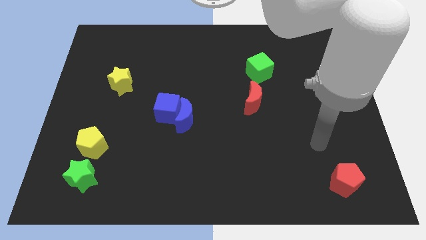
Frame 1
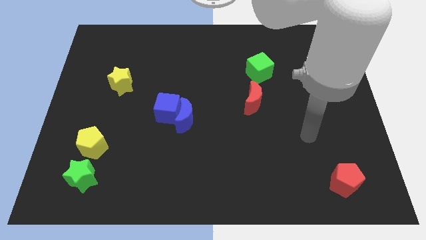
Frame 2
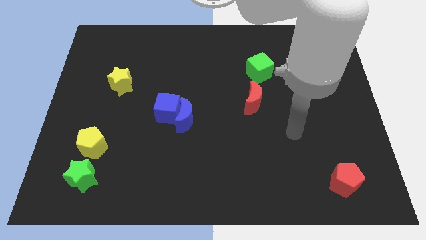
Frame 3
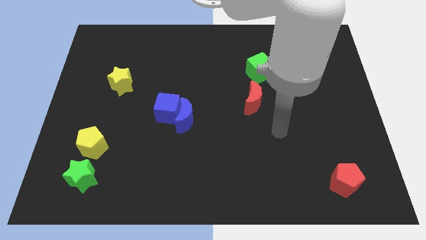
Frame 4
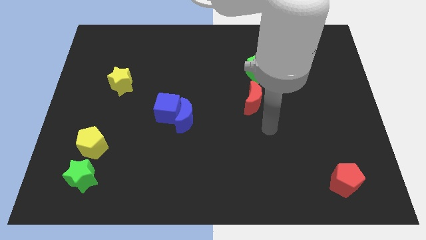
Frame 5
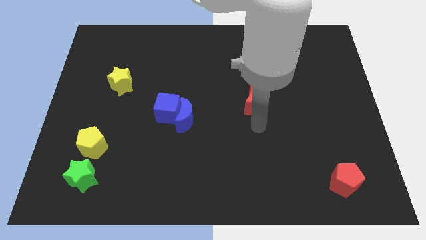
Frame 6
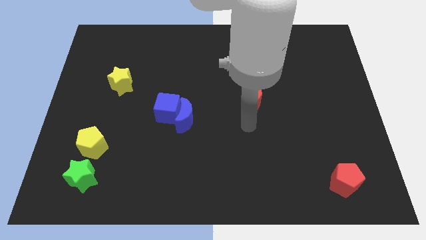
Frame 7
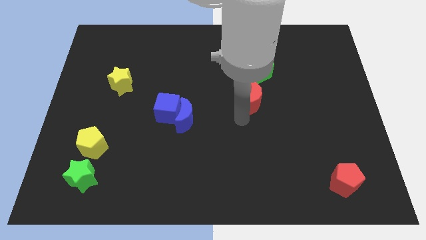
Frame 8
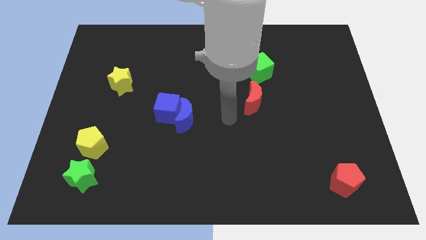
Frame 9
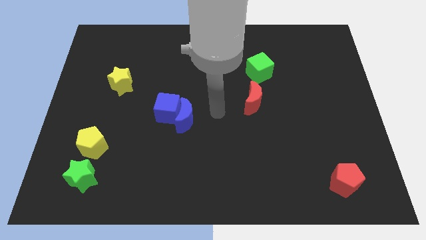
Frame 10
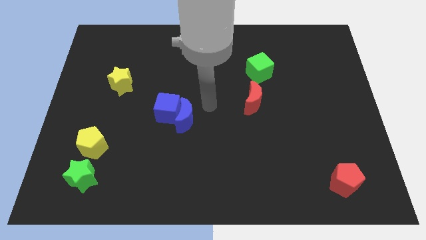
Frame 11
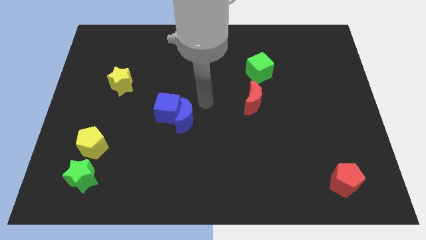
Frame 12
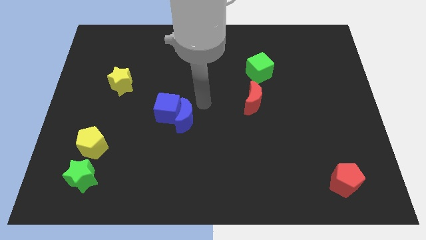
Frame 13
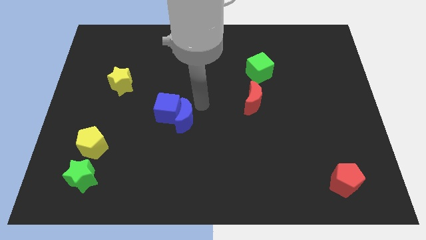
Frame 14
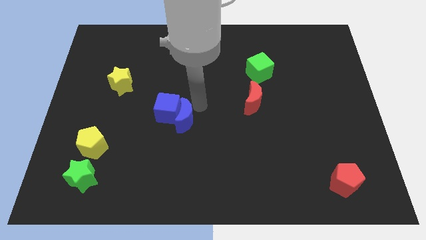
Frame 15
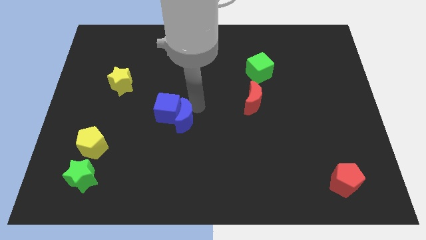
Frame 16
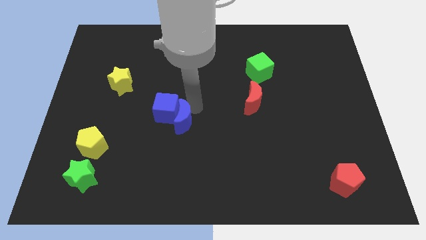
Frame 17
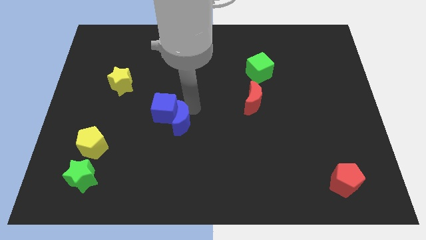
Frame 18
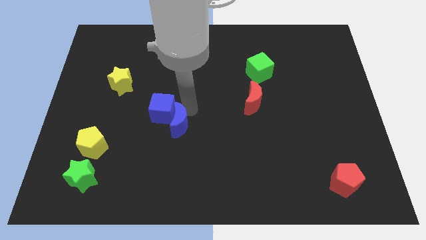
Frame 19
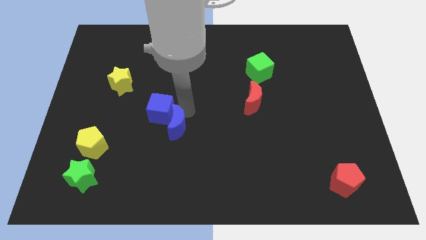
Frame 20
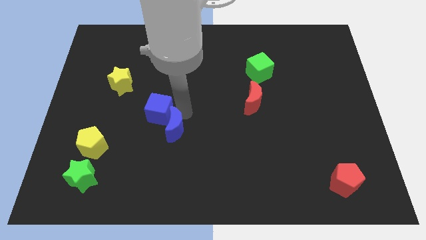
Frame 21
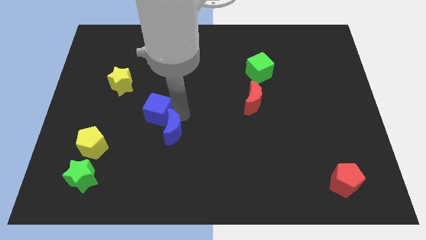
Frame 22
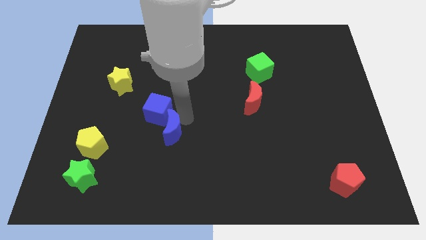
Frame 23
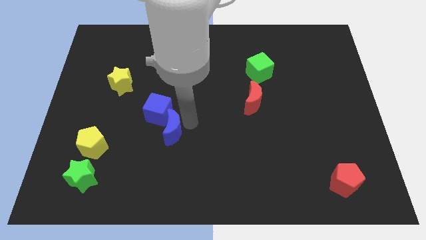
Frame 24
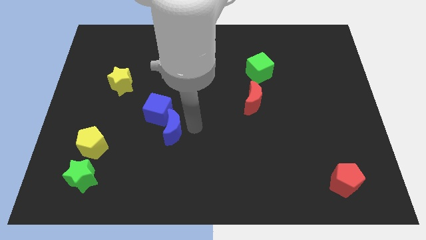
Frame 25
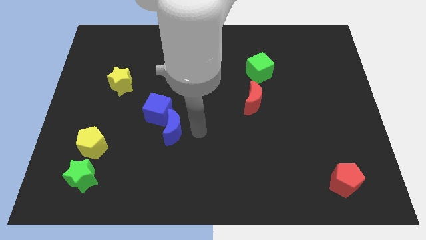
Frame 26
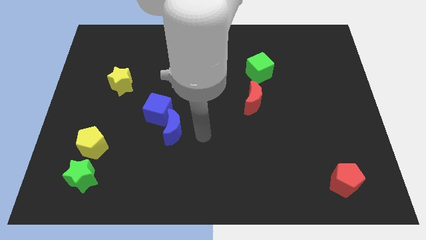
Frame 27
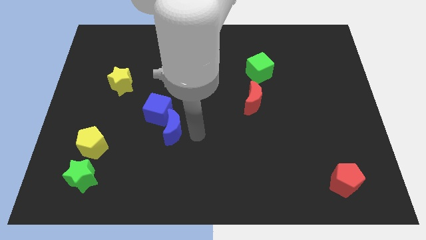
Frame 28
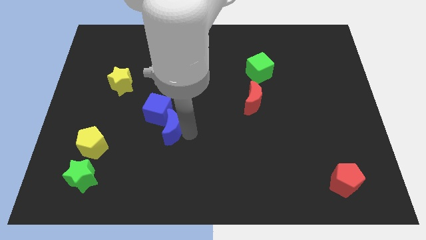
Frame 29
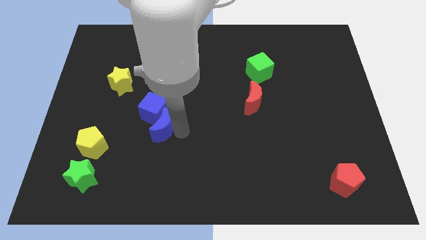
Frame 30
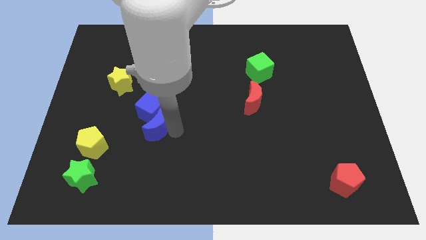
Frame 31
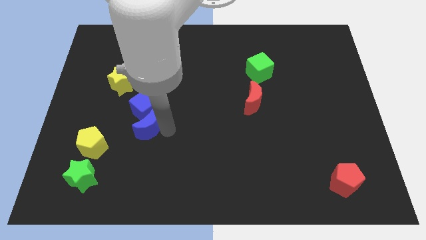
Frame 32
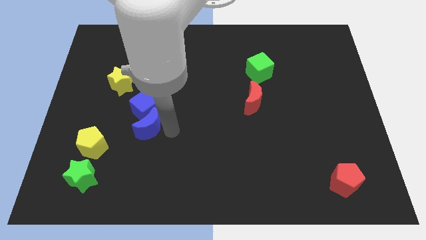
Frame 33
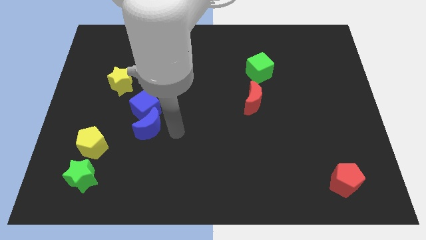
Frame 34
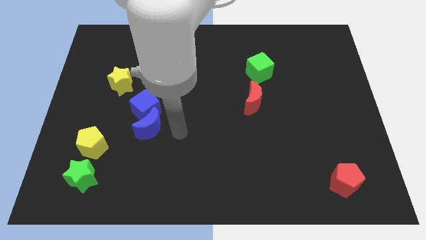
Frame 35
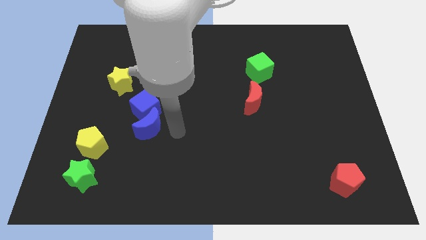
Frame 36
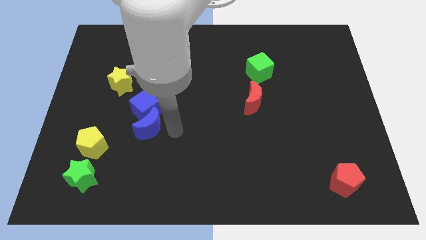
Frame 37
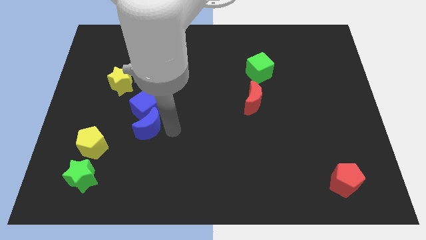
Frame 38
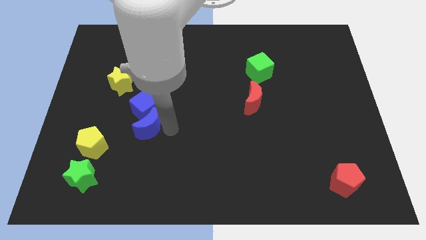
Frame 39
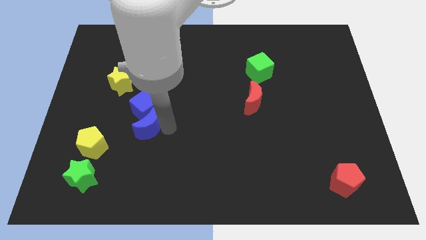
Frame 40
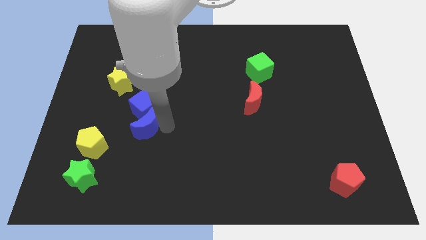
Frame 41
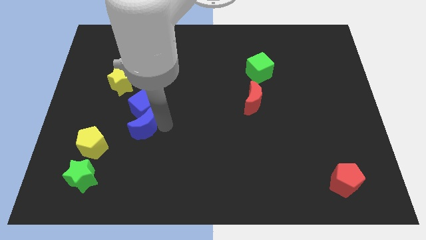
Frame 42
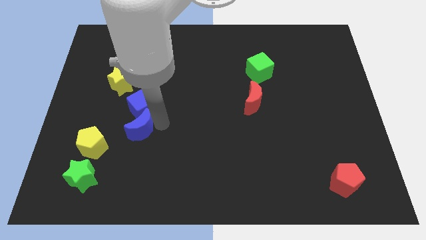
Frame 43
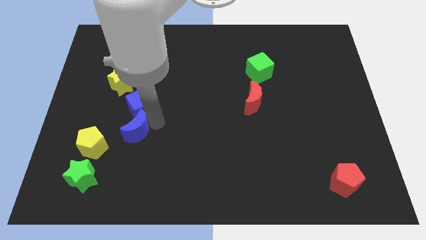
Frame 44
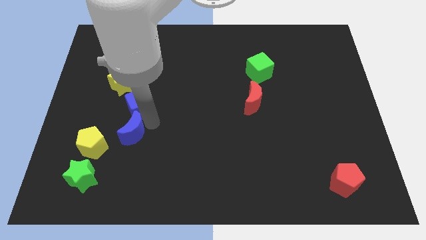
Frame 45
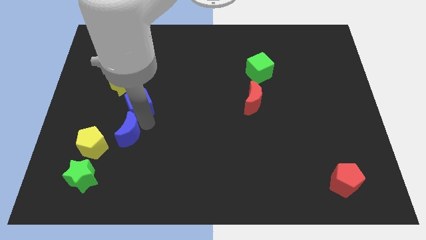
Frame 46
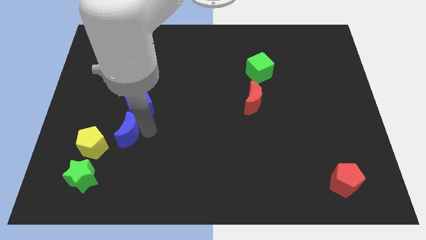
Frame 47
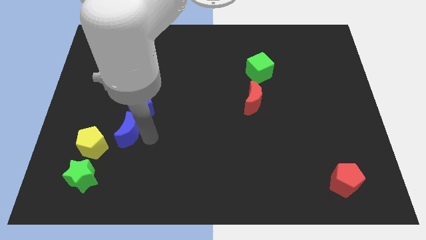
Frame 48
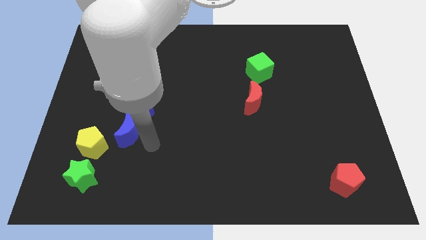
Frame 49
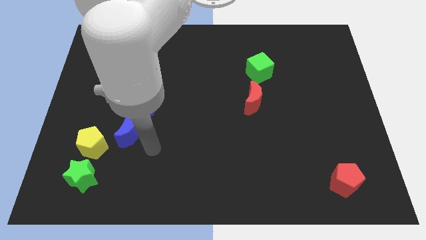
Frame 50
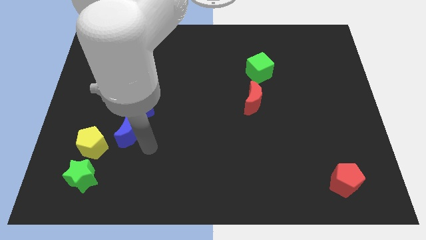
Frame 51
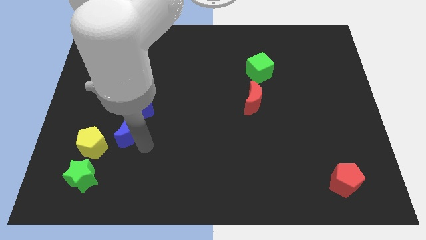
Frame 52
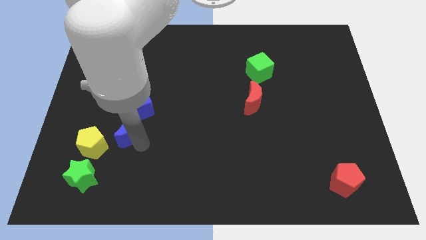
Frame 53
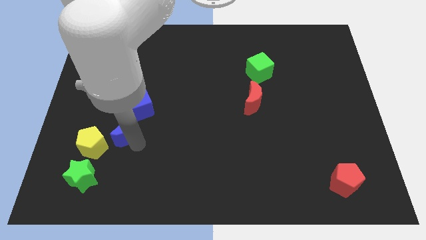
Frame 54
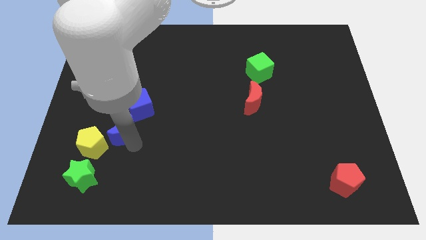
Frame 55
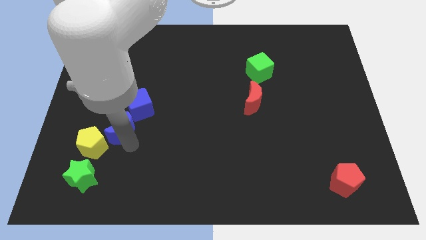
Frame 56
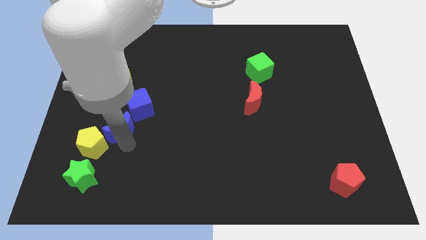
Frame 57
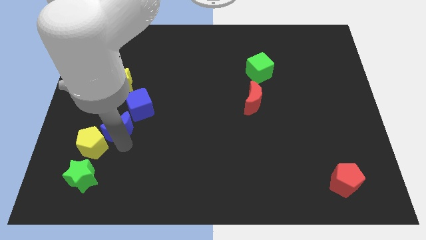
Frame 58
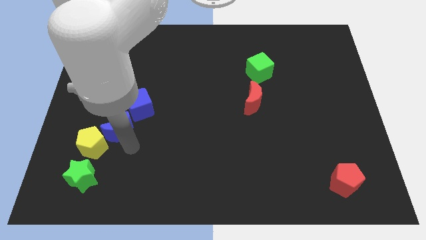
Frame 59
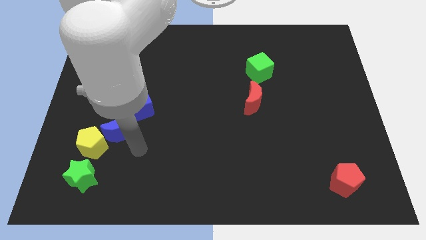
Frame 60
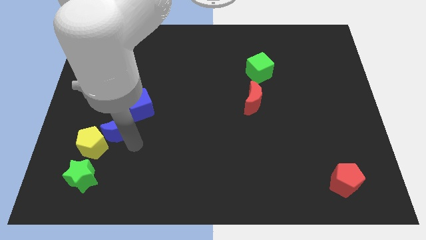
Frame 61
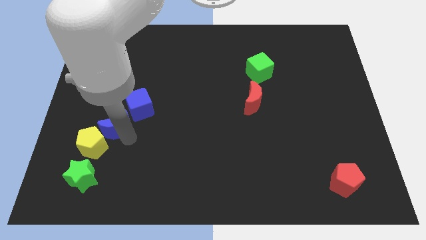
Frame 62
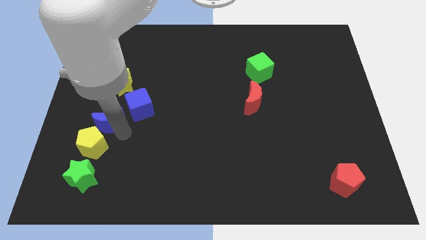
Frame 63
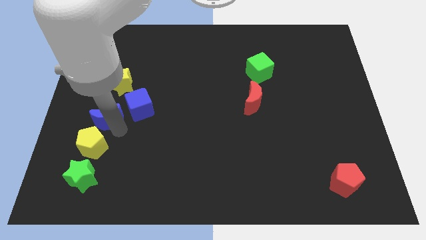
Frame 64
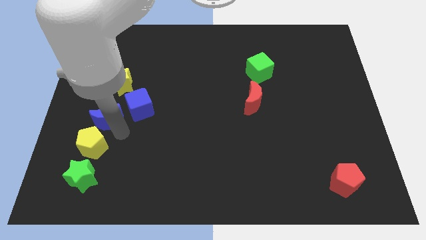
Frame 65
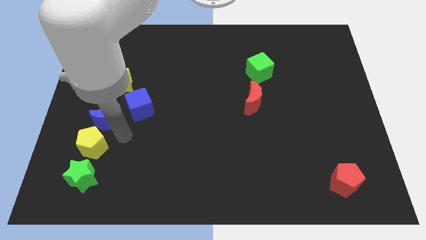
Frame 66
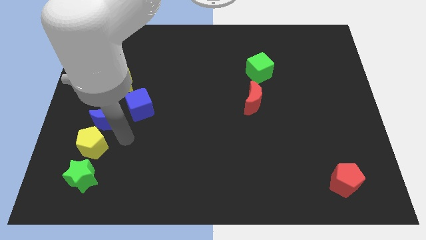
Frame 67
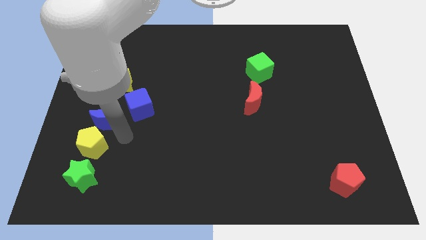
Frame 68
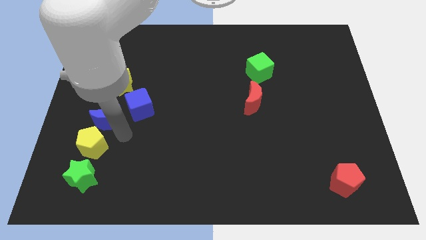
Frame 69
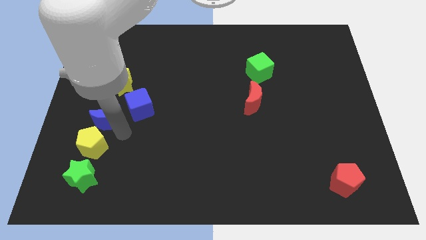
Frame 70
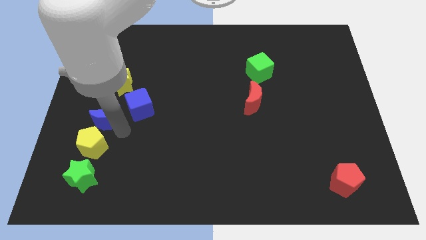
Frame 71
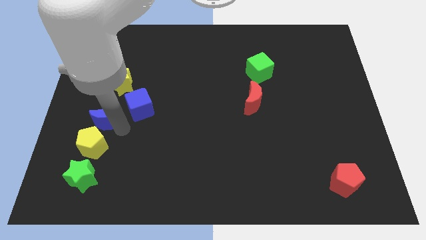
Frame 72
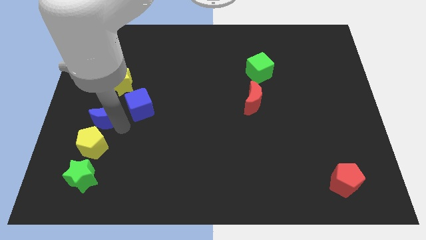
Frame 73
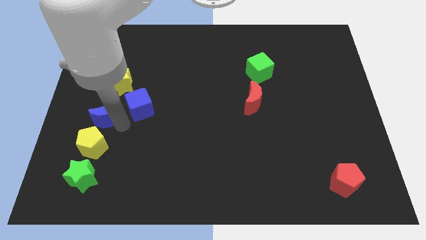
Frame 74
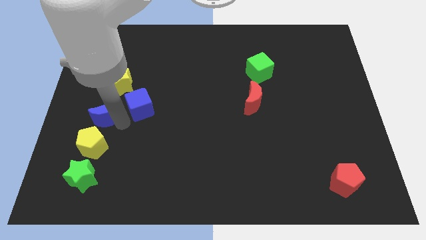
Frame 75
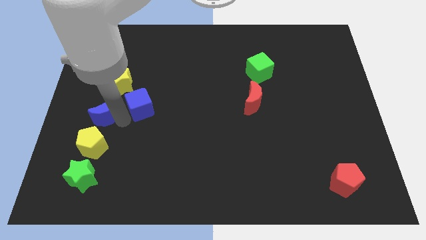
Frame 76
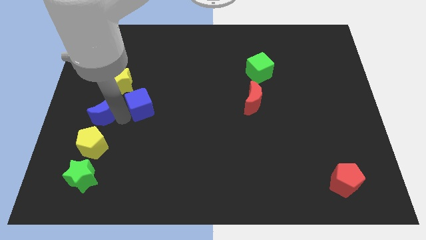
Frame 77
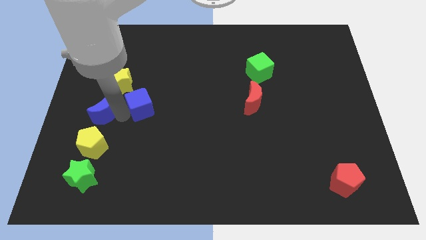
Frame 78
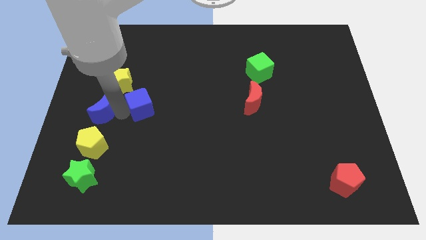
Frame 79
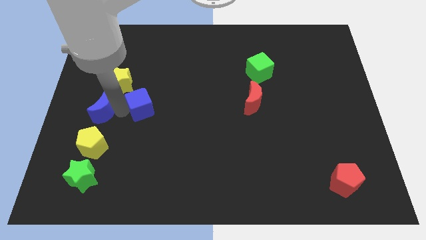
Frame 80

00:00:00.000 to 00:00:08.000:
slide the blue moon to the left side of the board
